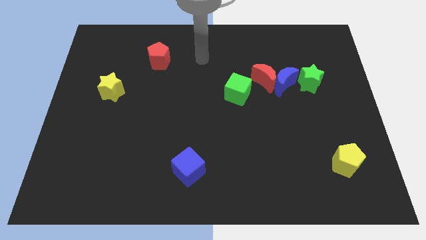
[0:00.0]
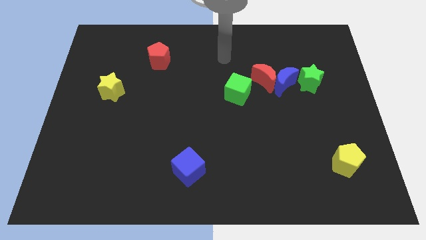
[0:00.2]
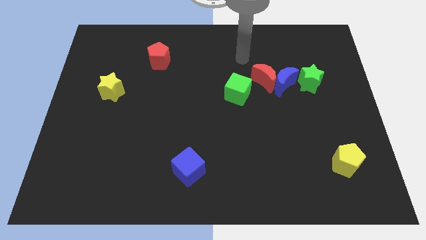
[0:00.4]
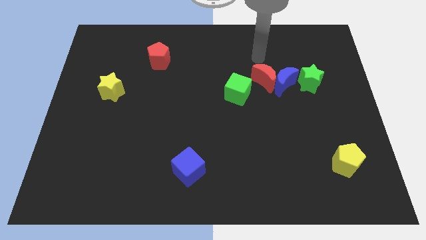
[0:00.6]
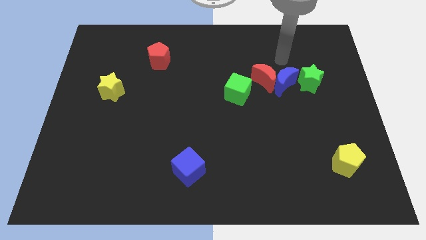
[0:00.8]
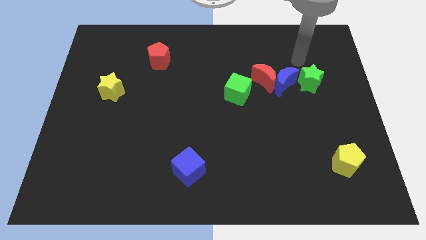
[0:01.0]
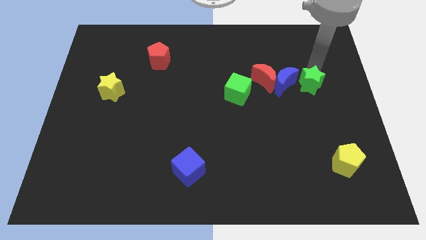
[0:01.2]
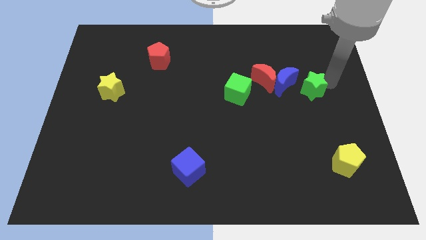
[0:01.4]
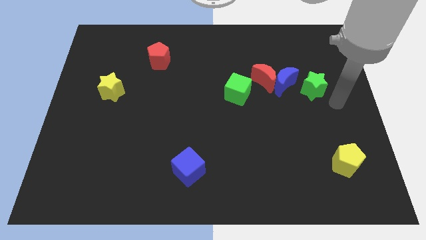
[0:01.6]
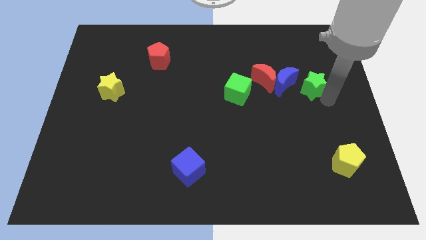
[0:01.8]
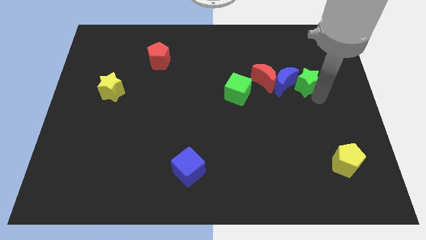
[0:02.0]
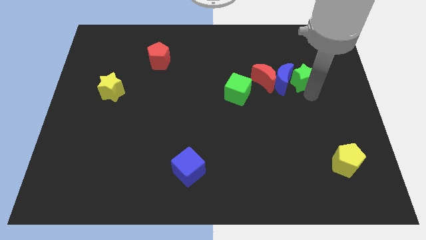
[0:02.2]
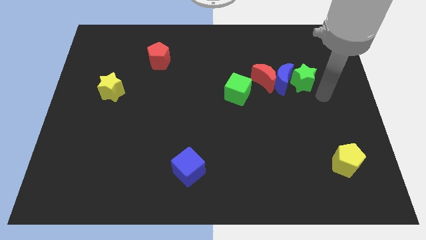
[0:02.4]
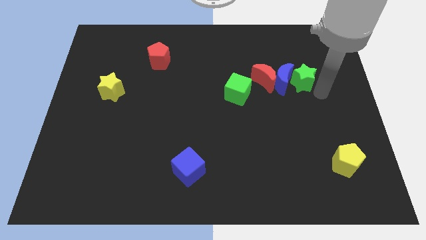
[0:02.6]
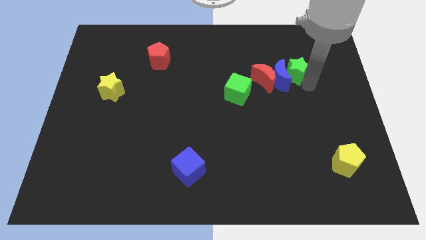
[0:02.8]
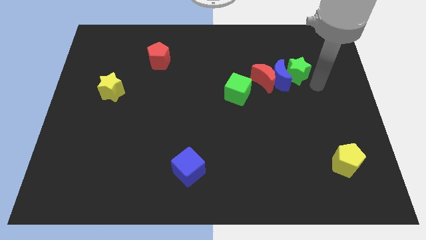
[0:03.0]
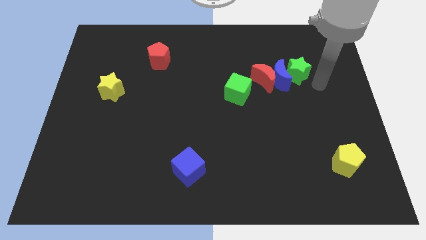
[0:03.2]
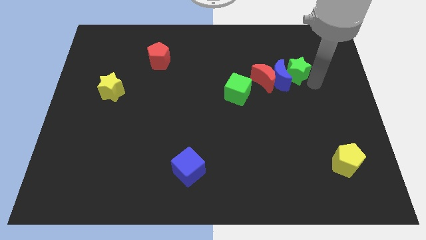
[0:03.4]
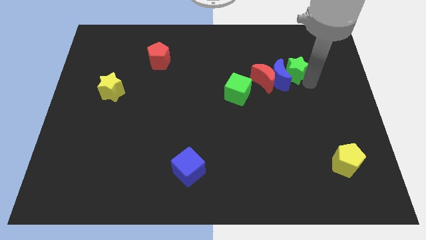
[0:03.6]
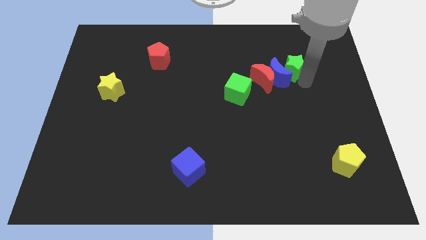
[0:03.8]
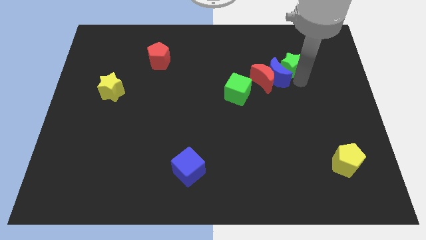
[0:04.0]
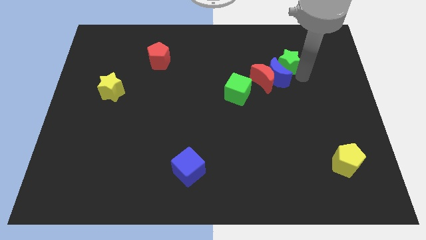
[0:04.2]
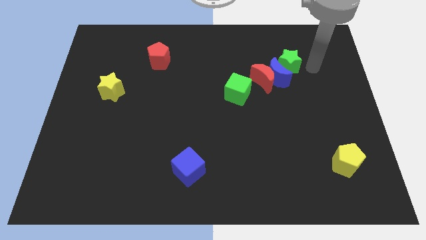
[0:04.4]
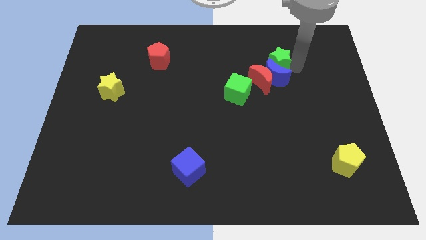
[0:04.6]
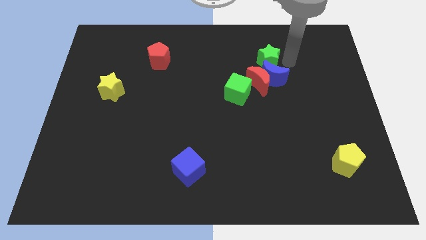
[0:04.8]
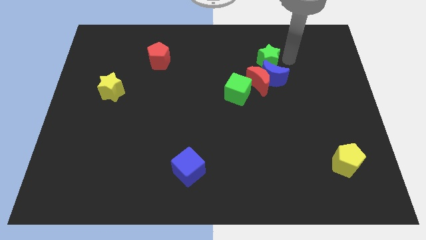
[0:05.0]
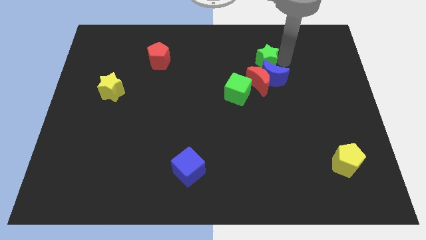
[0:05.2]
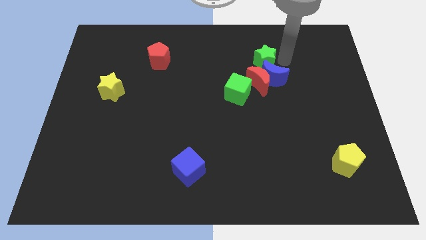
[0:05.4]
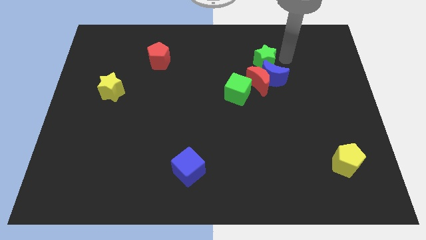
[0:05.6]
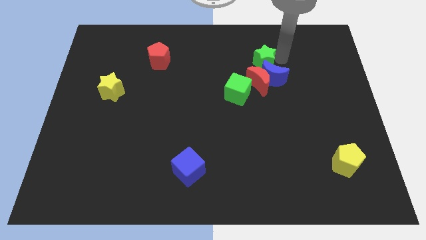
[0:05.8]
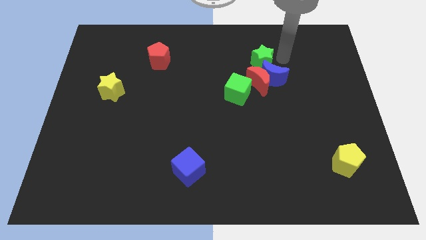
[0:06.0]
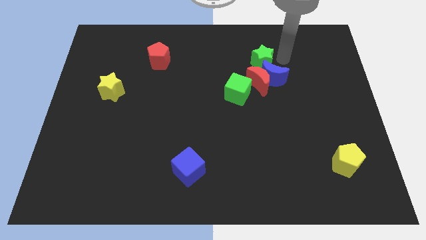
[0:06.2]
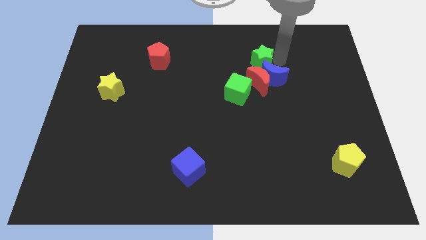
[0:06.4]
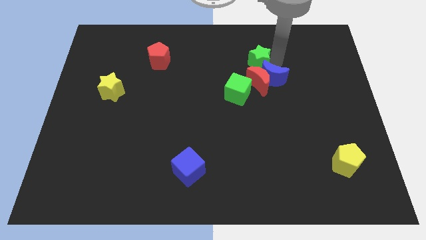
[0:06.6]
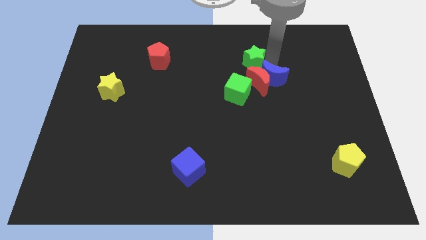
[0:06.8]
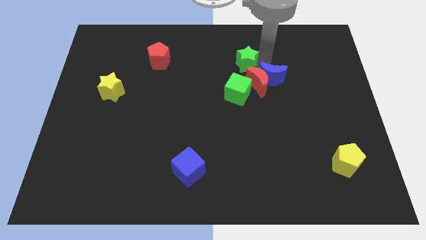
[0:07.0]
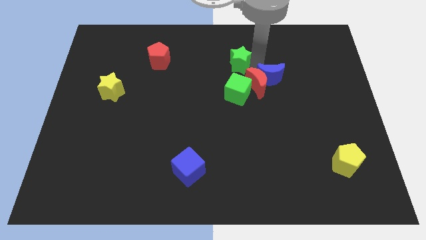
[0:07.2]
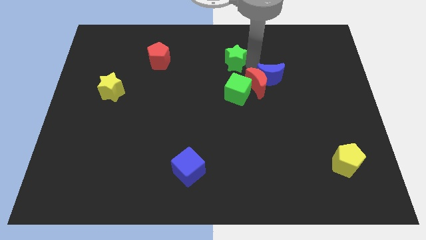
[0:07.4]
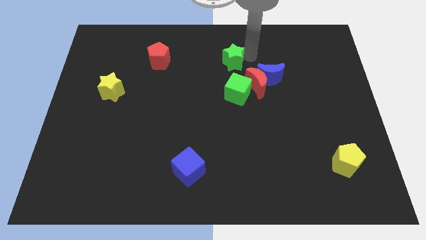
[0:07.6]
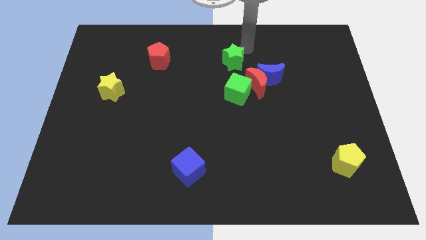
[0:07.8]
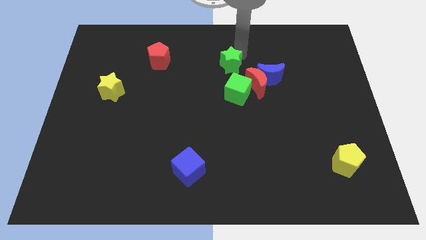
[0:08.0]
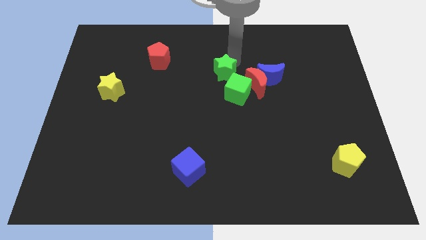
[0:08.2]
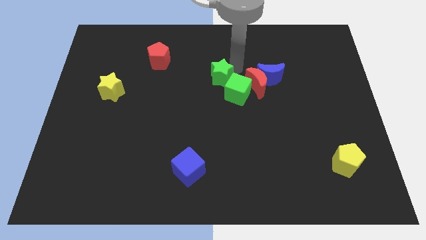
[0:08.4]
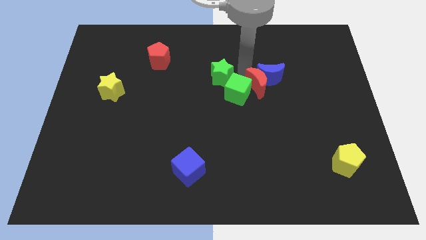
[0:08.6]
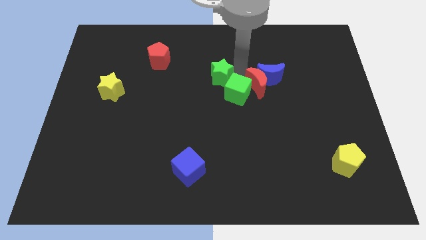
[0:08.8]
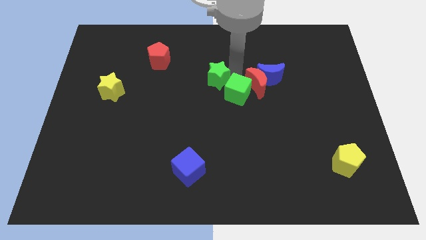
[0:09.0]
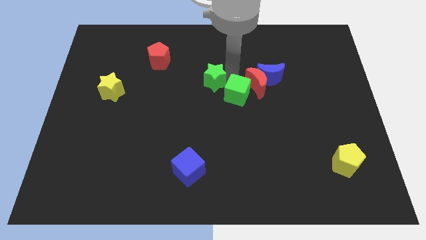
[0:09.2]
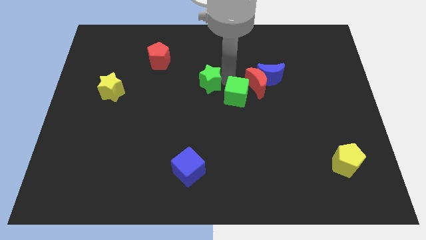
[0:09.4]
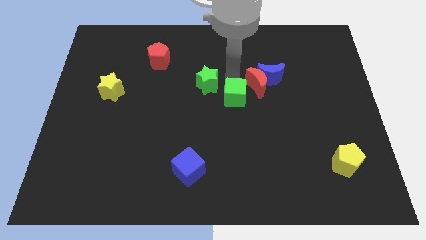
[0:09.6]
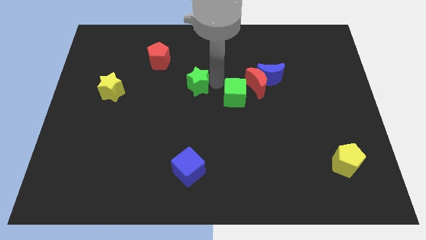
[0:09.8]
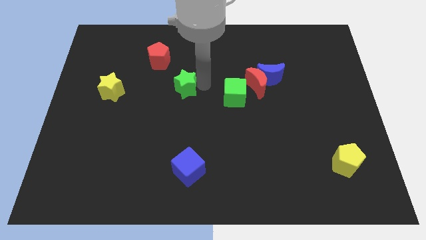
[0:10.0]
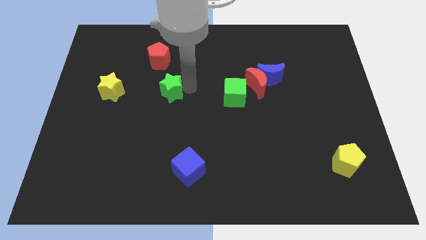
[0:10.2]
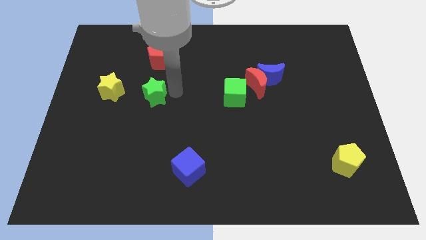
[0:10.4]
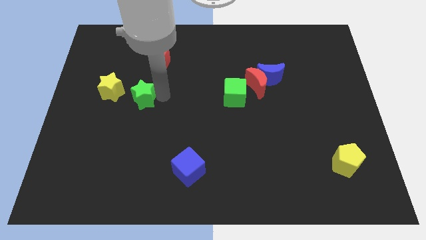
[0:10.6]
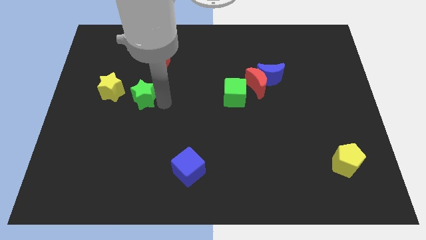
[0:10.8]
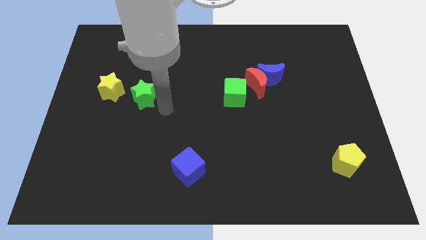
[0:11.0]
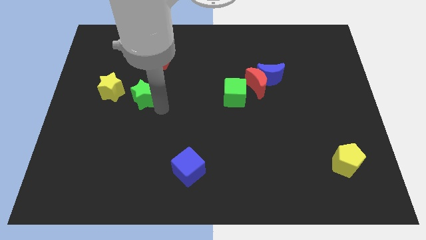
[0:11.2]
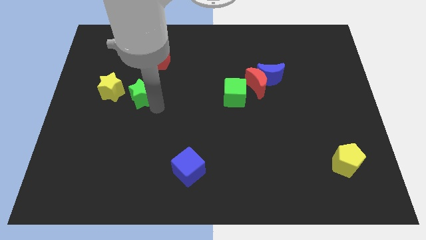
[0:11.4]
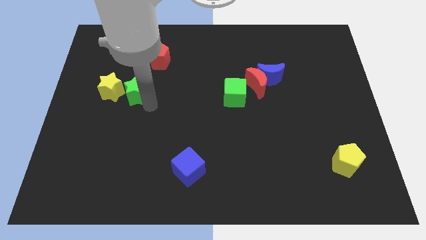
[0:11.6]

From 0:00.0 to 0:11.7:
push the green star towards the yellow star

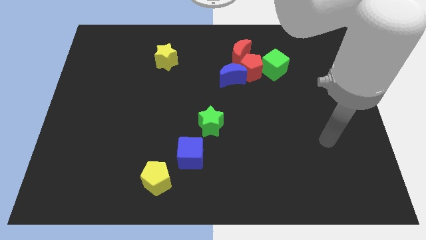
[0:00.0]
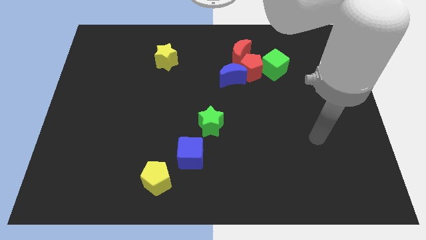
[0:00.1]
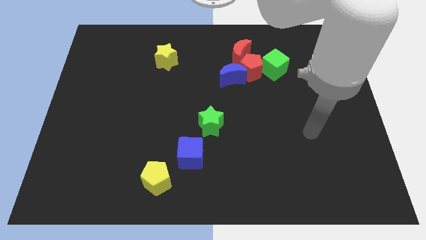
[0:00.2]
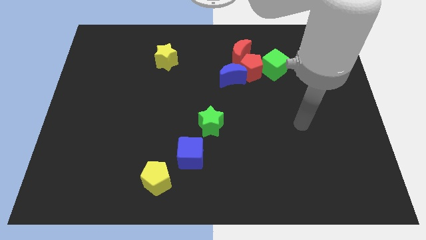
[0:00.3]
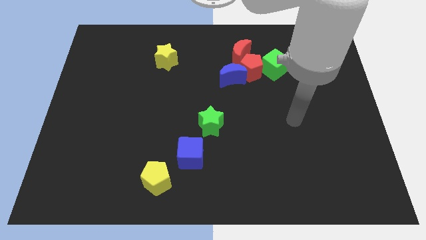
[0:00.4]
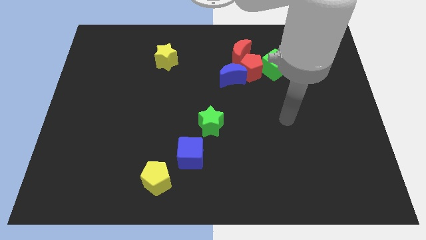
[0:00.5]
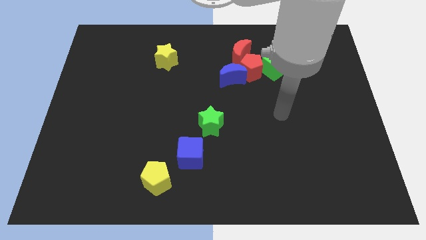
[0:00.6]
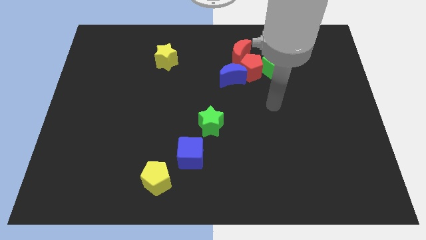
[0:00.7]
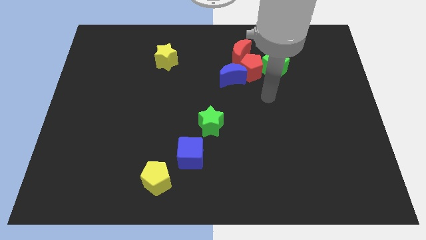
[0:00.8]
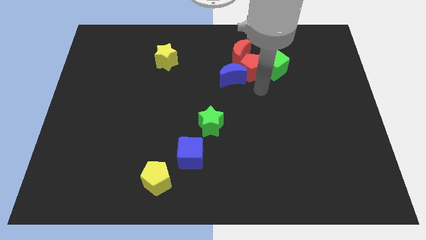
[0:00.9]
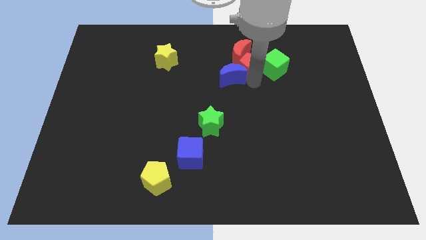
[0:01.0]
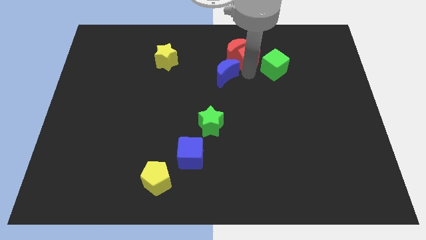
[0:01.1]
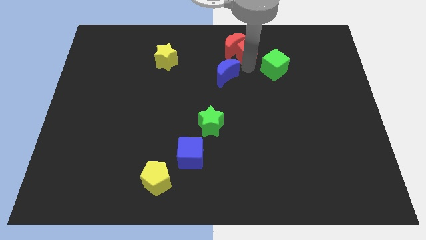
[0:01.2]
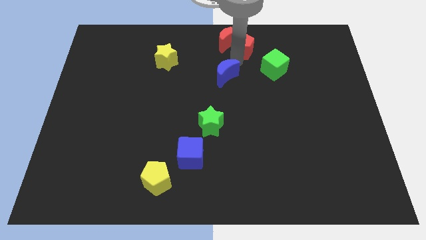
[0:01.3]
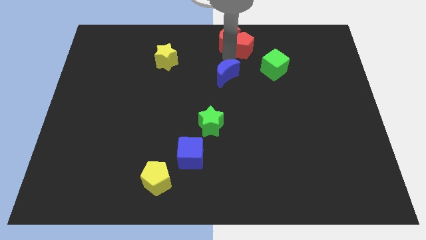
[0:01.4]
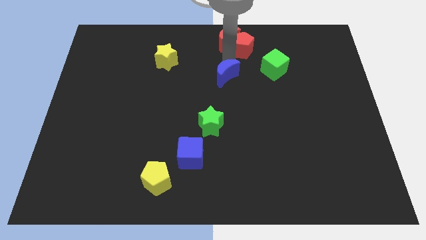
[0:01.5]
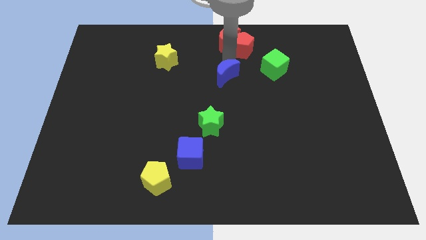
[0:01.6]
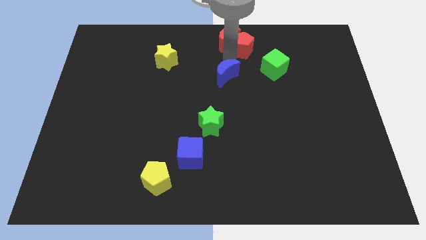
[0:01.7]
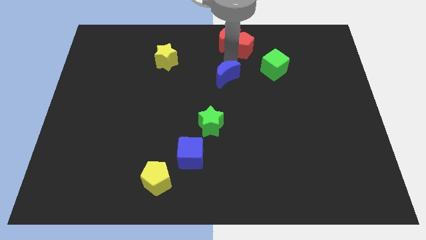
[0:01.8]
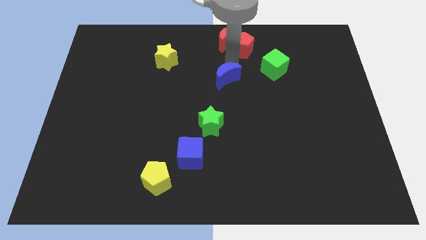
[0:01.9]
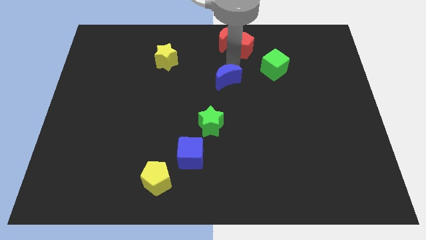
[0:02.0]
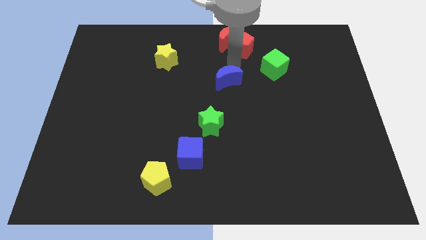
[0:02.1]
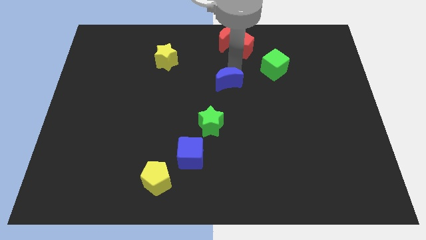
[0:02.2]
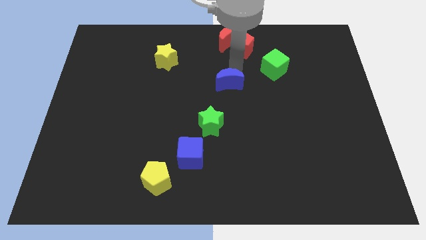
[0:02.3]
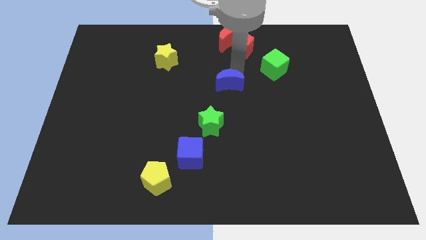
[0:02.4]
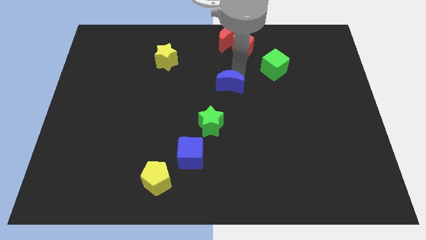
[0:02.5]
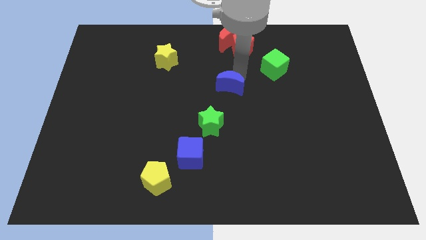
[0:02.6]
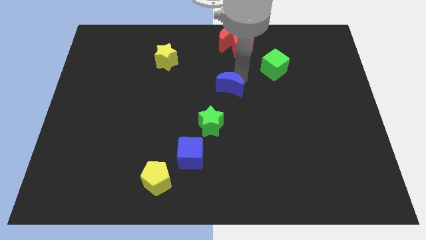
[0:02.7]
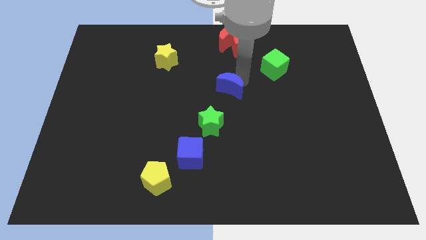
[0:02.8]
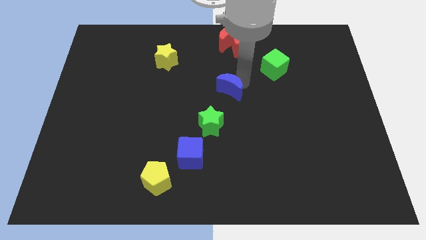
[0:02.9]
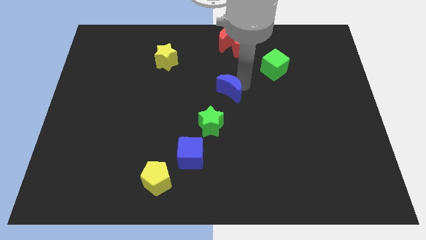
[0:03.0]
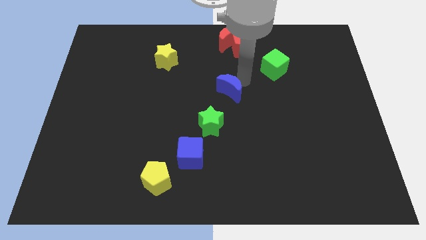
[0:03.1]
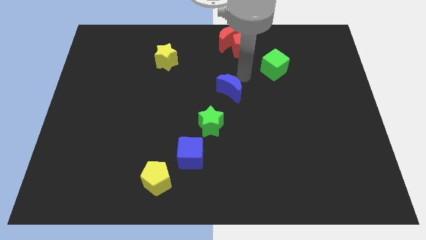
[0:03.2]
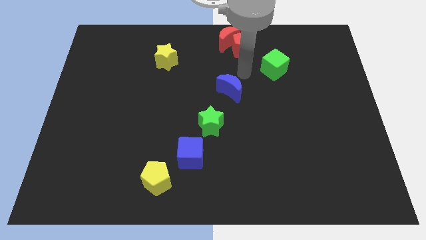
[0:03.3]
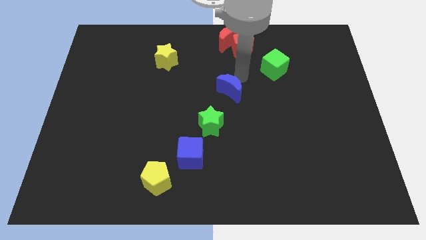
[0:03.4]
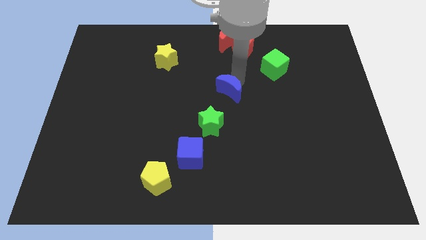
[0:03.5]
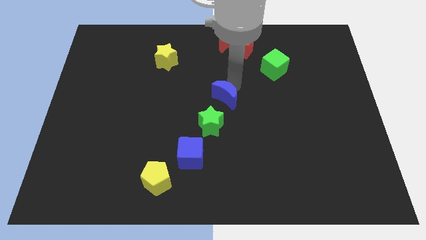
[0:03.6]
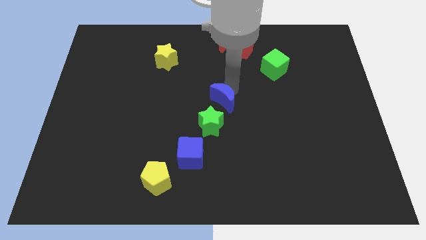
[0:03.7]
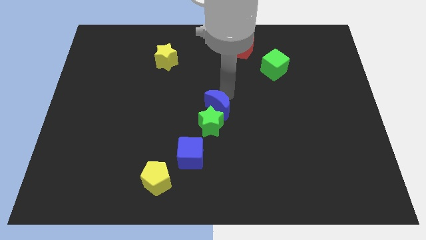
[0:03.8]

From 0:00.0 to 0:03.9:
move the blue moon towards the green star
